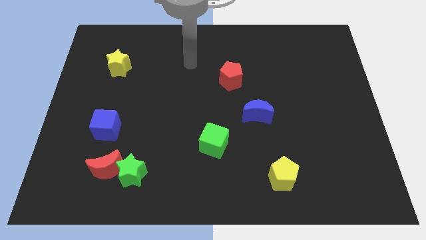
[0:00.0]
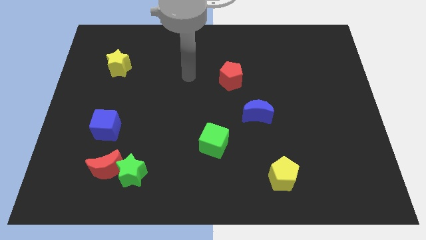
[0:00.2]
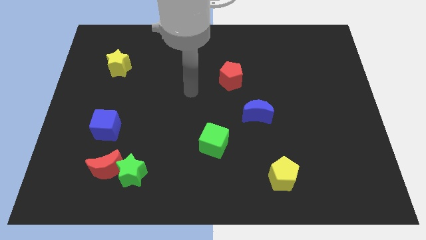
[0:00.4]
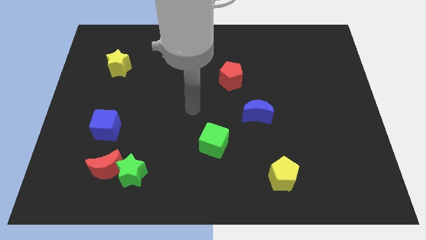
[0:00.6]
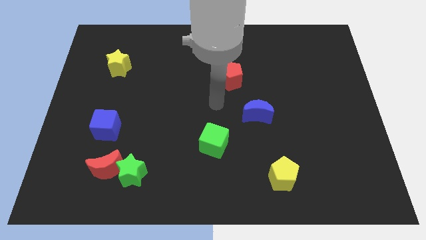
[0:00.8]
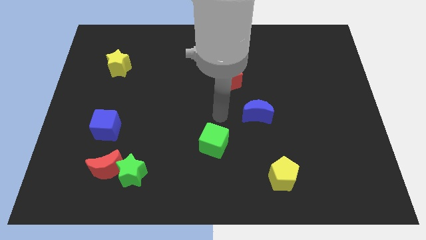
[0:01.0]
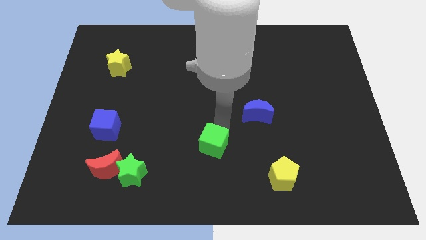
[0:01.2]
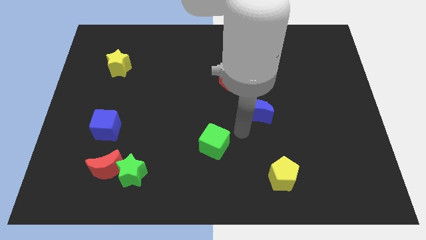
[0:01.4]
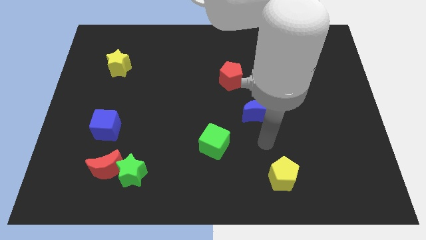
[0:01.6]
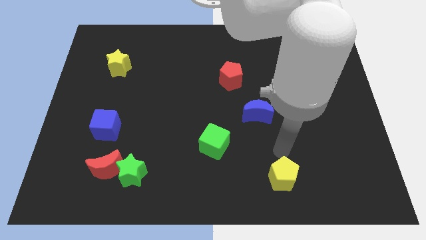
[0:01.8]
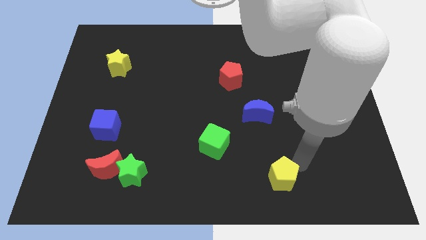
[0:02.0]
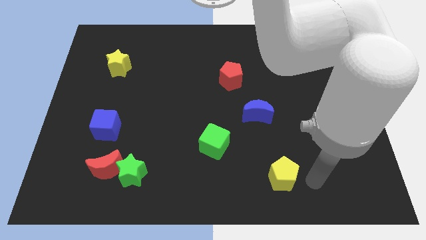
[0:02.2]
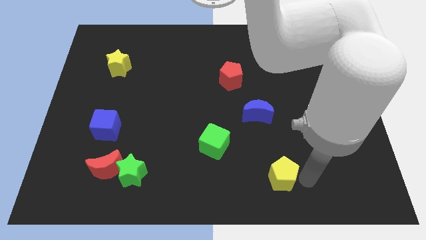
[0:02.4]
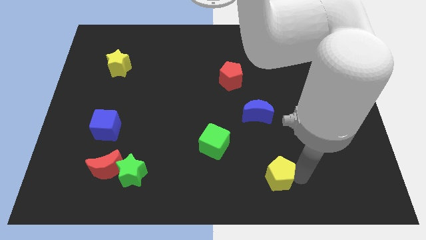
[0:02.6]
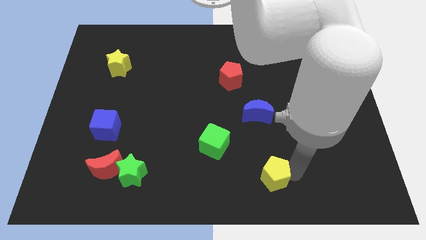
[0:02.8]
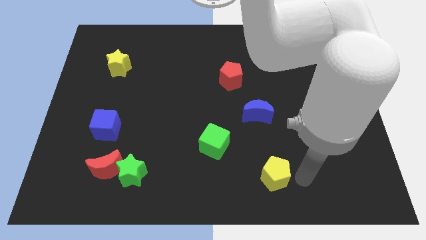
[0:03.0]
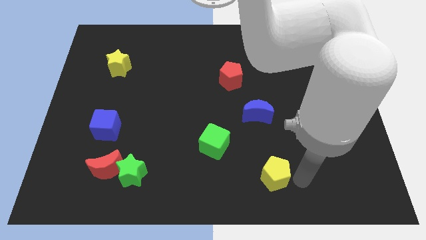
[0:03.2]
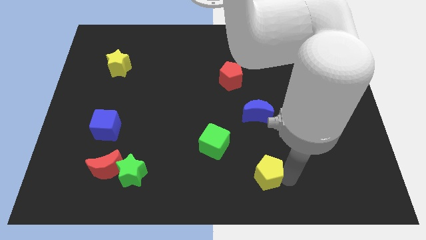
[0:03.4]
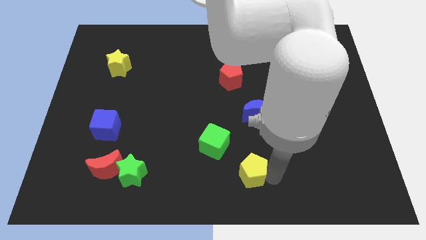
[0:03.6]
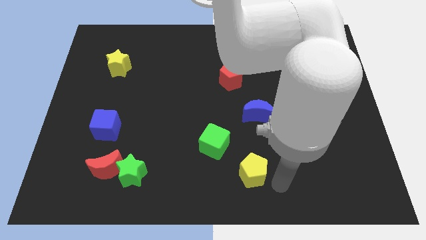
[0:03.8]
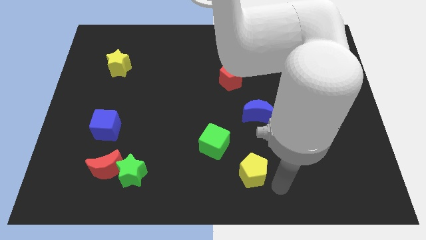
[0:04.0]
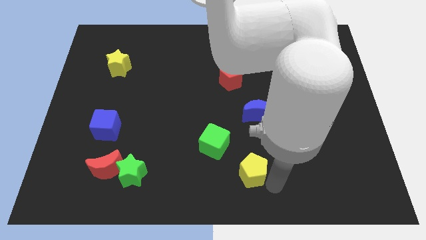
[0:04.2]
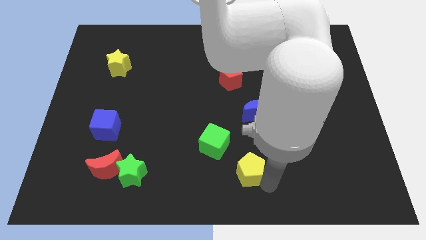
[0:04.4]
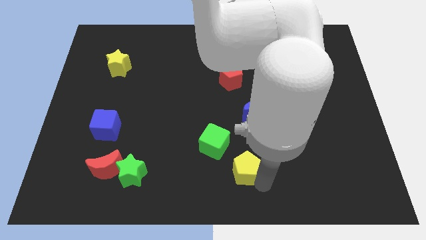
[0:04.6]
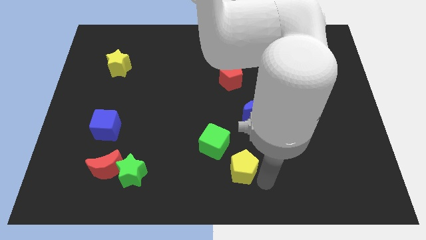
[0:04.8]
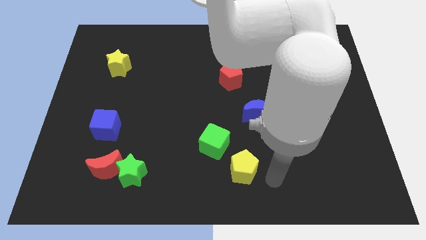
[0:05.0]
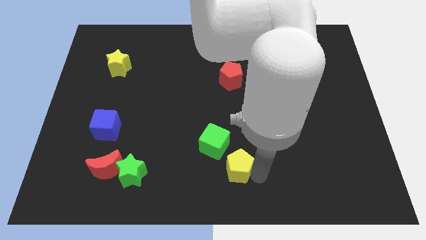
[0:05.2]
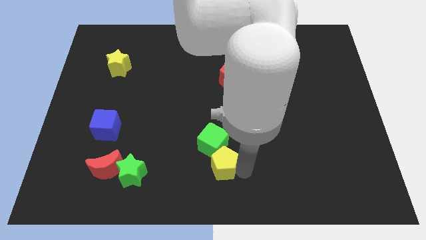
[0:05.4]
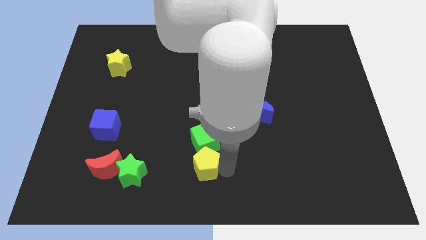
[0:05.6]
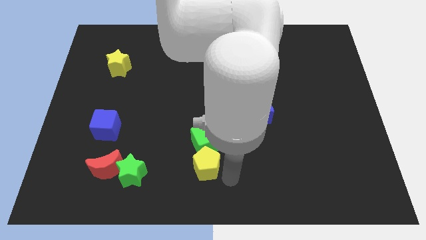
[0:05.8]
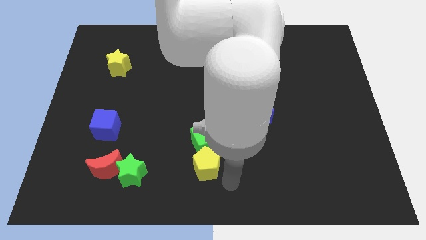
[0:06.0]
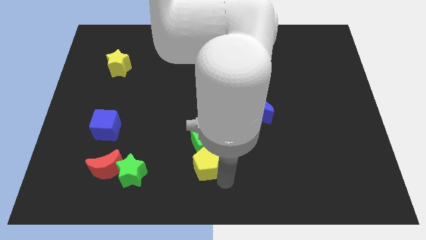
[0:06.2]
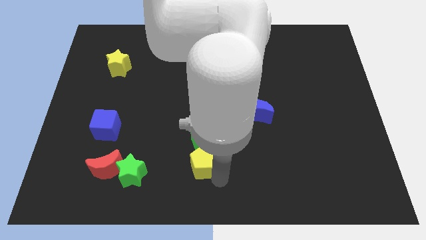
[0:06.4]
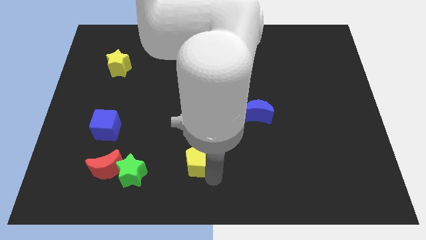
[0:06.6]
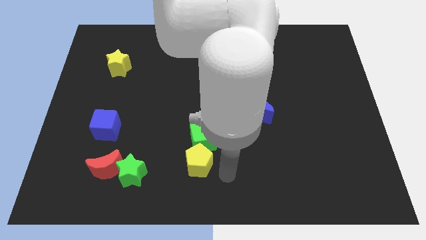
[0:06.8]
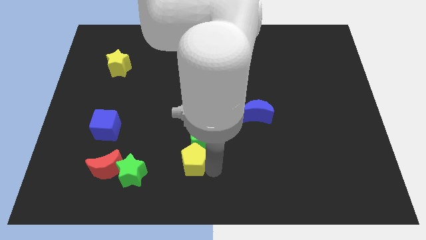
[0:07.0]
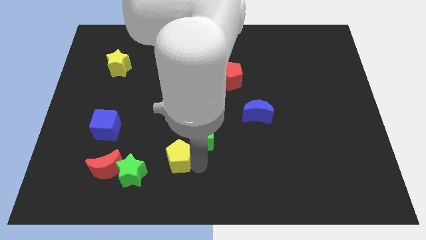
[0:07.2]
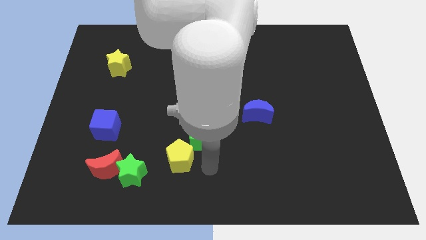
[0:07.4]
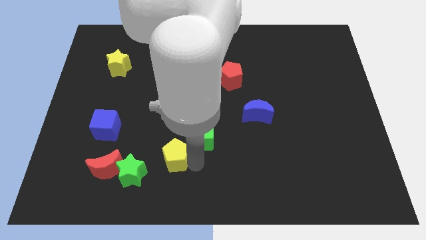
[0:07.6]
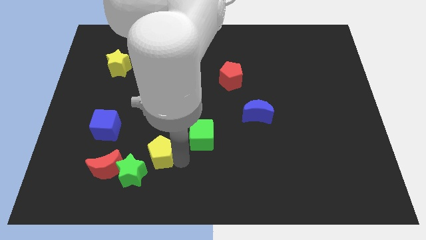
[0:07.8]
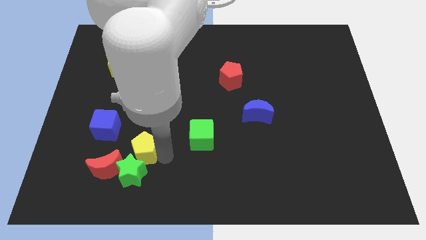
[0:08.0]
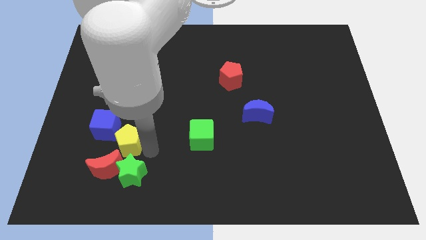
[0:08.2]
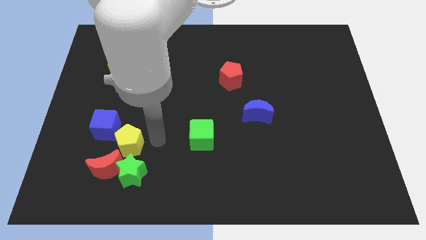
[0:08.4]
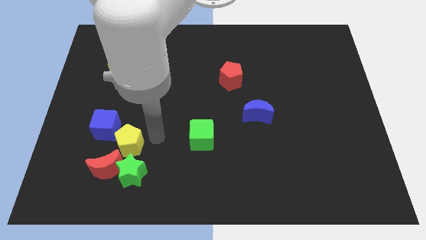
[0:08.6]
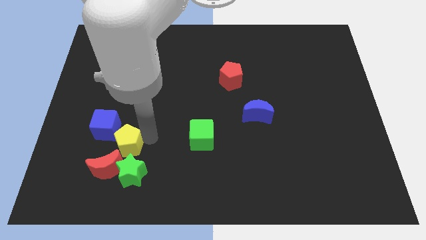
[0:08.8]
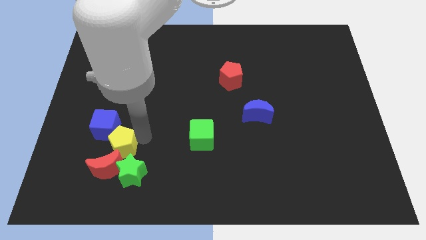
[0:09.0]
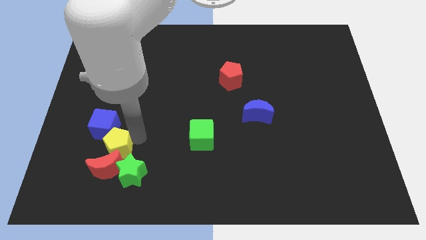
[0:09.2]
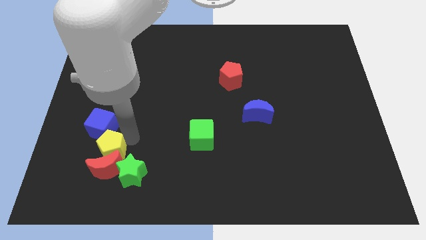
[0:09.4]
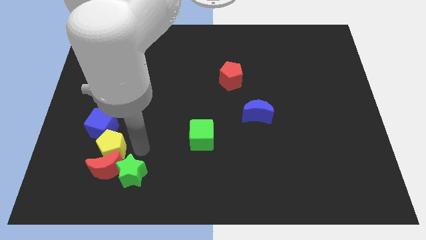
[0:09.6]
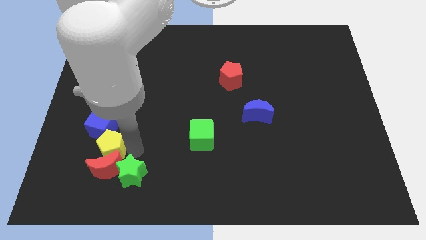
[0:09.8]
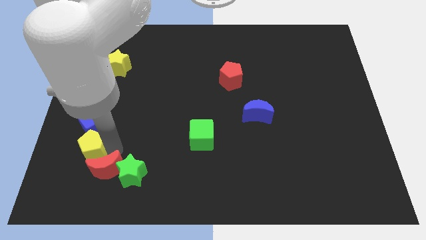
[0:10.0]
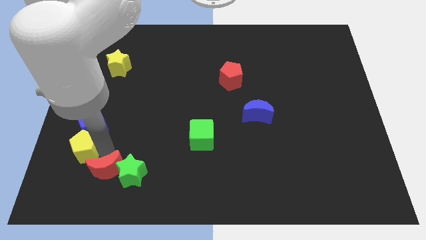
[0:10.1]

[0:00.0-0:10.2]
slide the yellow pentagon to the bottom left side of the blue cube

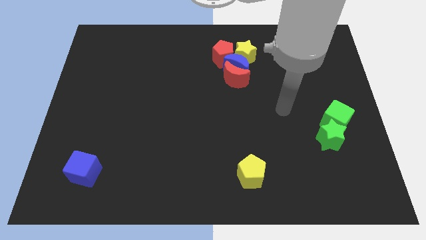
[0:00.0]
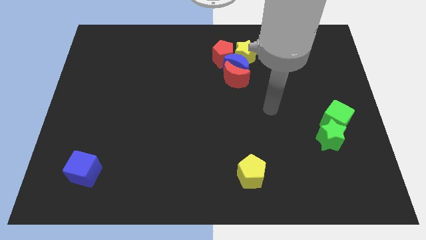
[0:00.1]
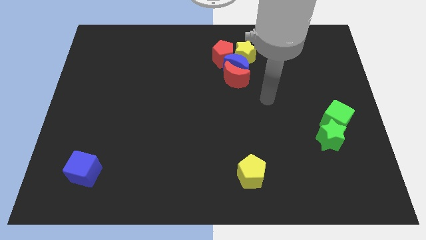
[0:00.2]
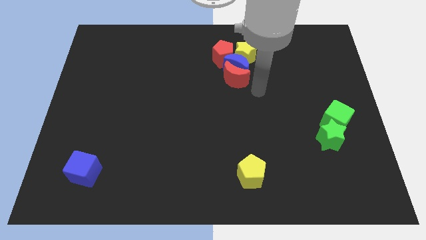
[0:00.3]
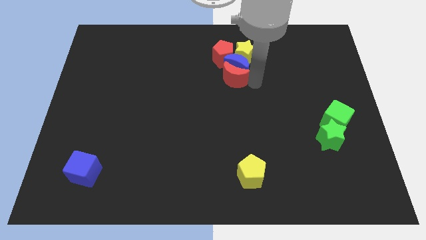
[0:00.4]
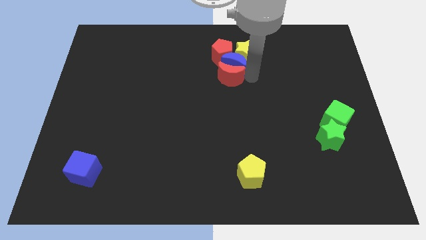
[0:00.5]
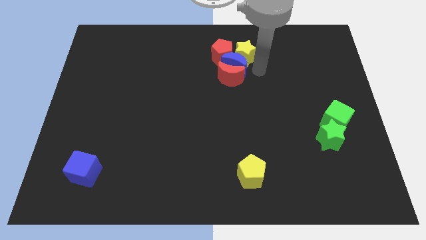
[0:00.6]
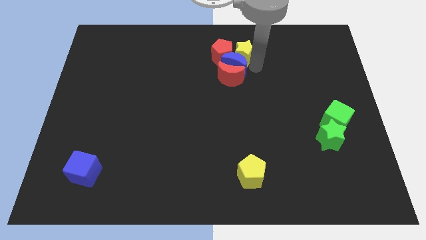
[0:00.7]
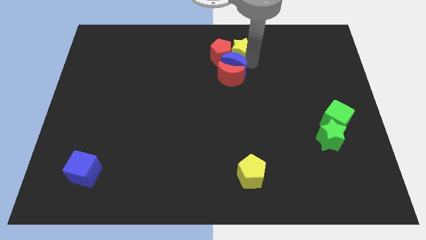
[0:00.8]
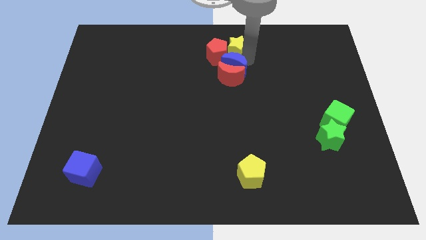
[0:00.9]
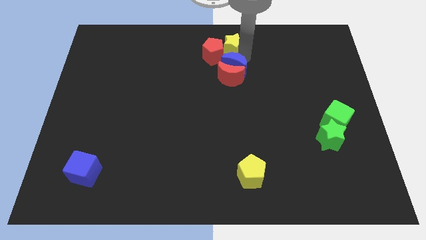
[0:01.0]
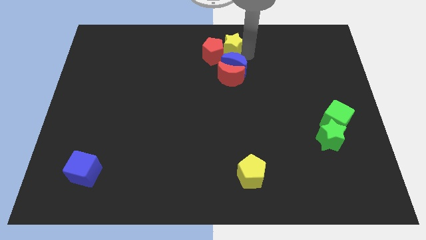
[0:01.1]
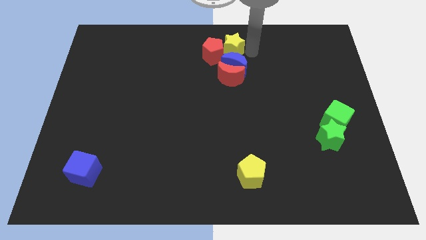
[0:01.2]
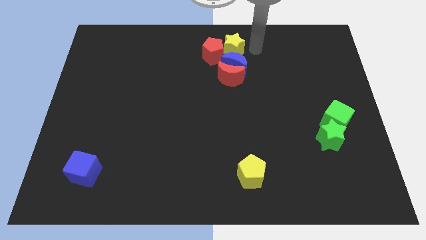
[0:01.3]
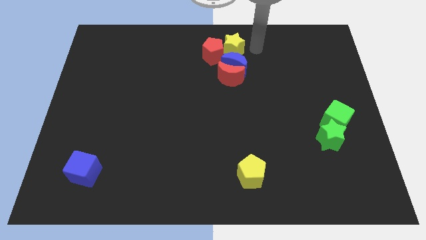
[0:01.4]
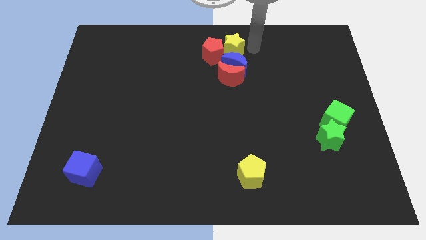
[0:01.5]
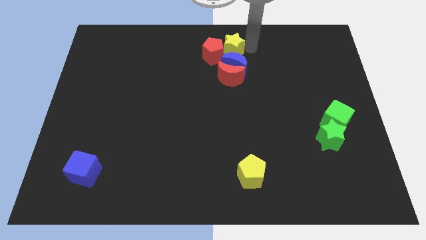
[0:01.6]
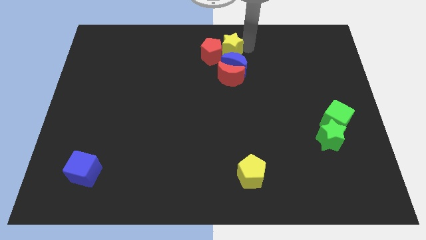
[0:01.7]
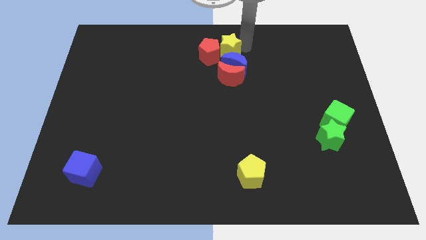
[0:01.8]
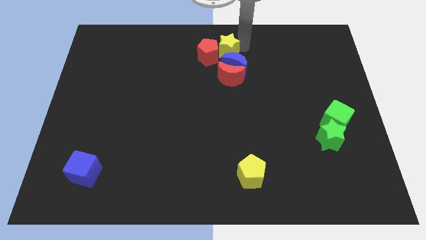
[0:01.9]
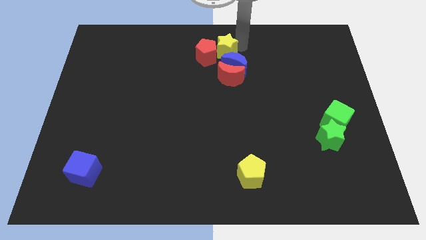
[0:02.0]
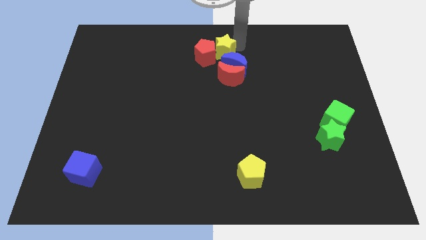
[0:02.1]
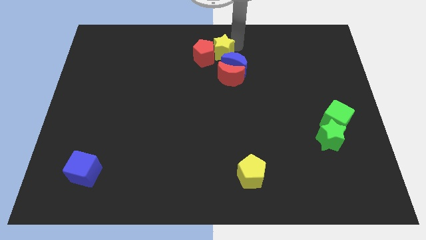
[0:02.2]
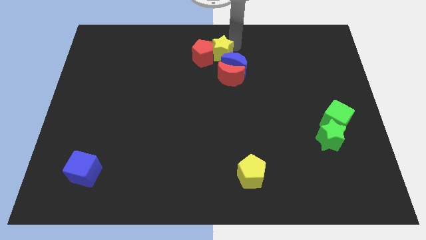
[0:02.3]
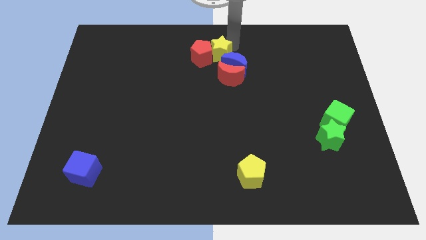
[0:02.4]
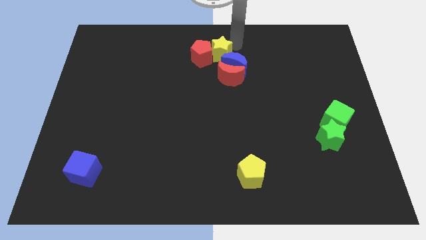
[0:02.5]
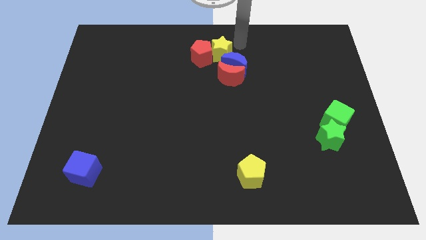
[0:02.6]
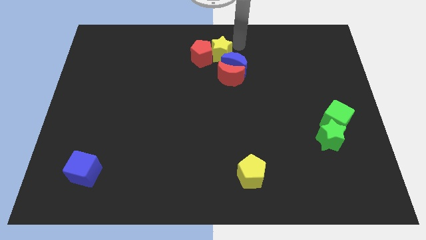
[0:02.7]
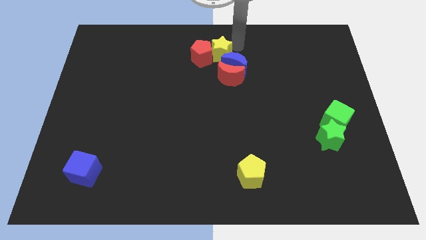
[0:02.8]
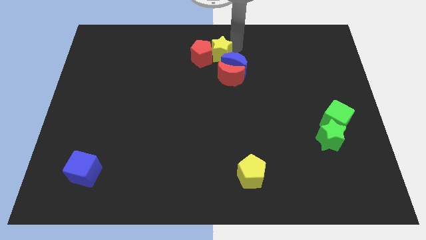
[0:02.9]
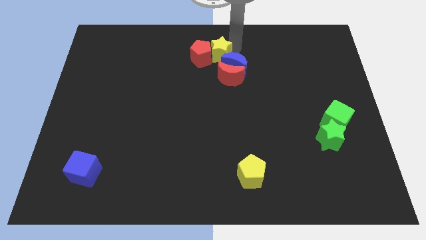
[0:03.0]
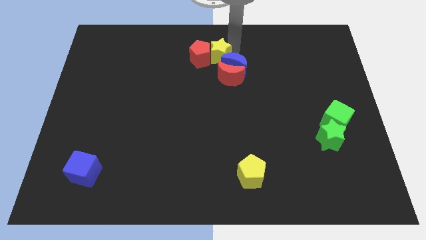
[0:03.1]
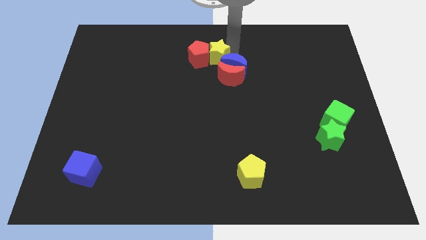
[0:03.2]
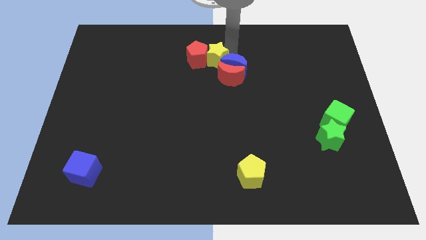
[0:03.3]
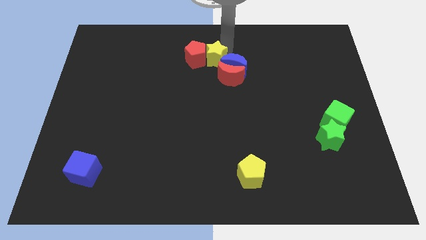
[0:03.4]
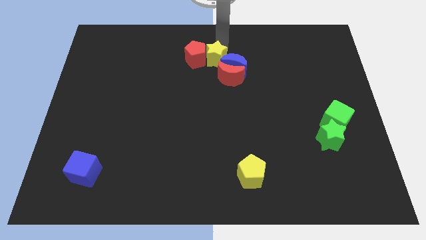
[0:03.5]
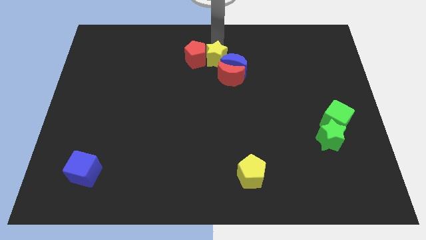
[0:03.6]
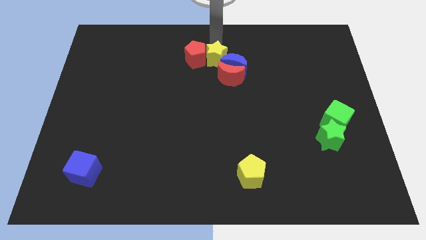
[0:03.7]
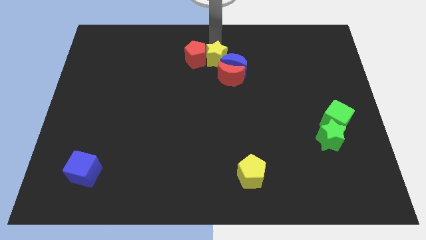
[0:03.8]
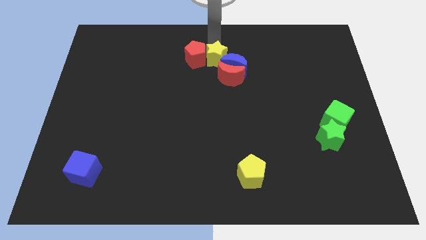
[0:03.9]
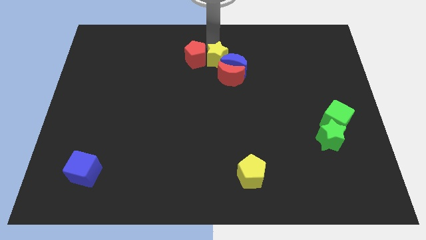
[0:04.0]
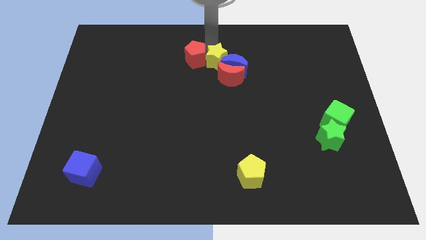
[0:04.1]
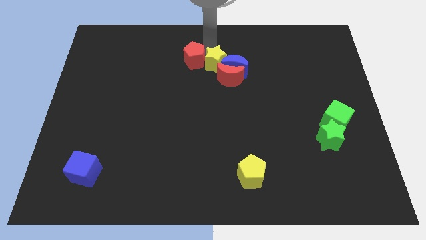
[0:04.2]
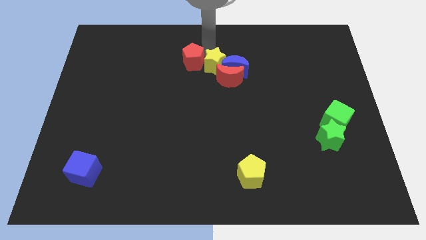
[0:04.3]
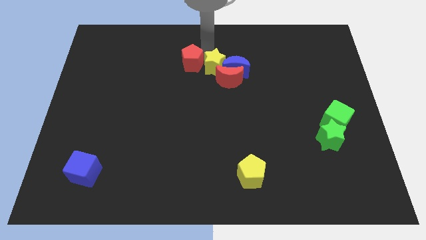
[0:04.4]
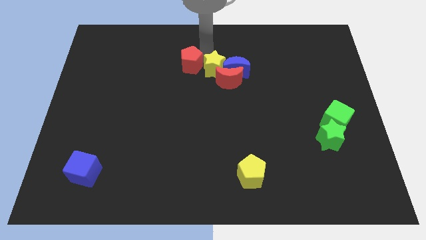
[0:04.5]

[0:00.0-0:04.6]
push the yellow star to the bottom left side of the blue moon
